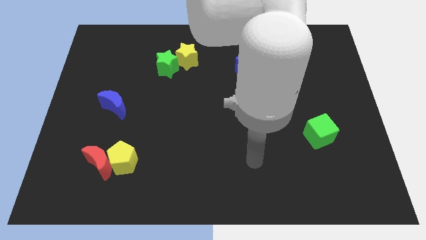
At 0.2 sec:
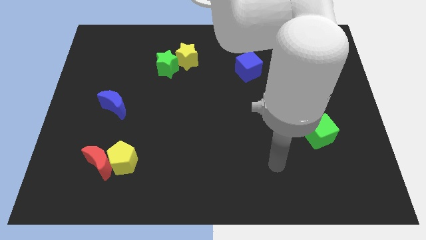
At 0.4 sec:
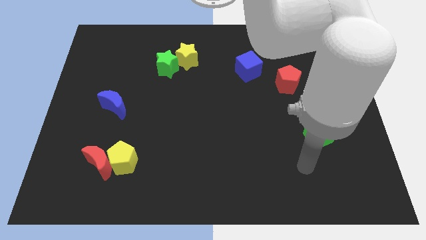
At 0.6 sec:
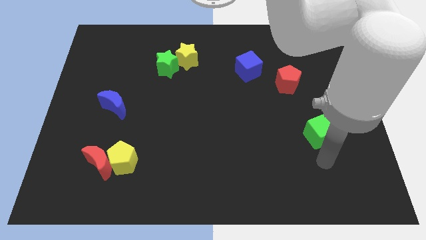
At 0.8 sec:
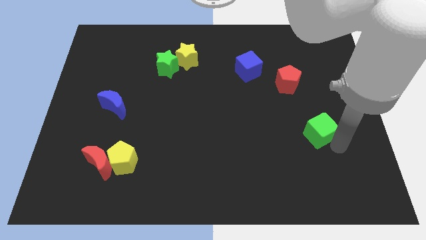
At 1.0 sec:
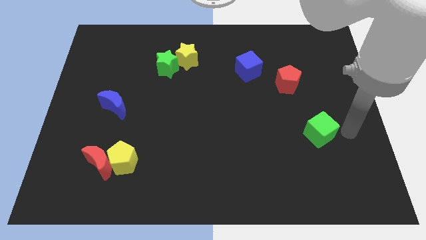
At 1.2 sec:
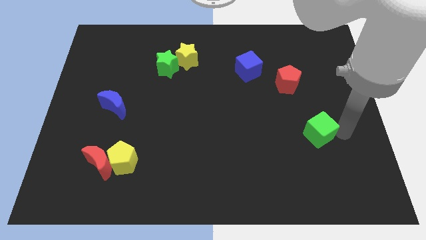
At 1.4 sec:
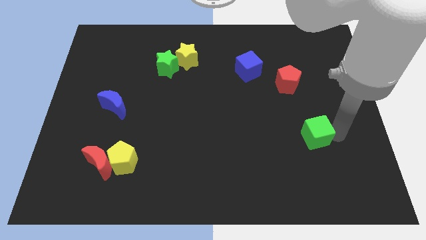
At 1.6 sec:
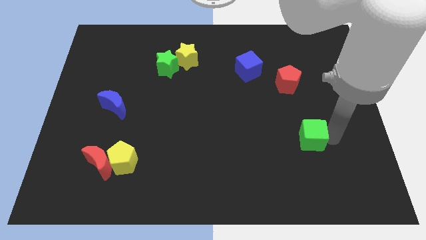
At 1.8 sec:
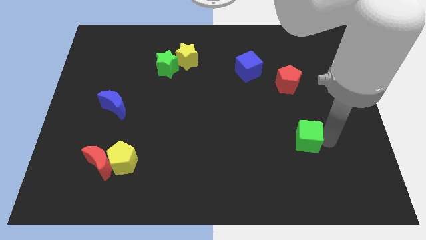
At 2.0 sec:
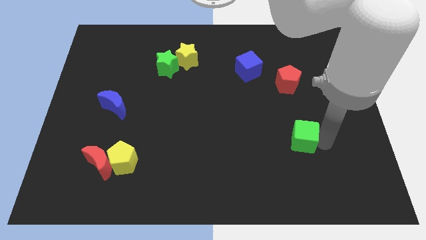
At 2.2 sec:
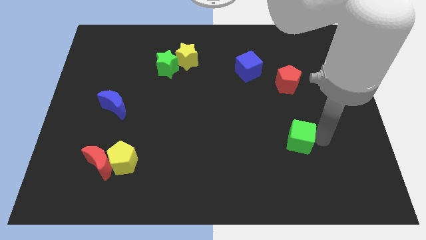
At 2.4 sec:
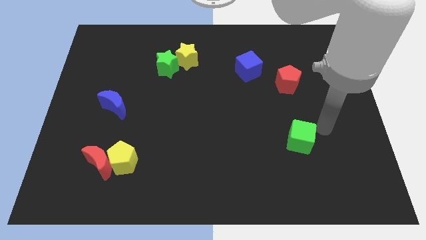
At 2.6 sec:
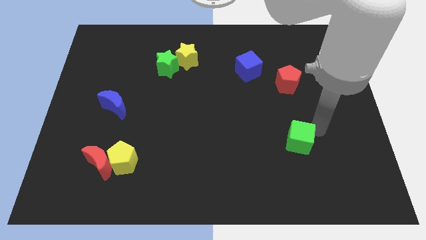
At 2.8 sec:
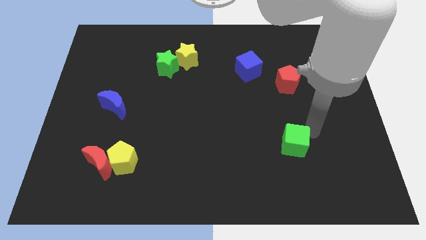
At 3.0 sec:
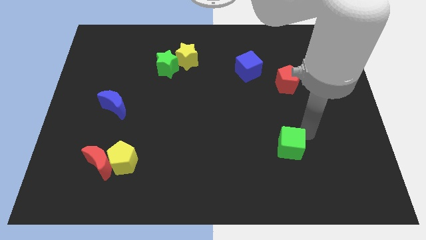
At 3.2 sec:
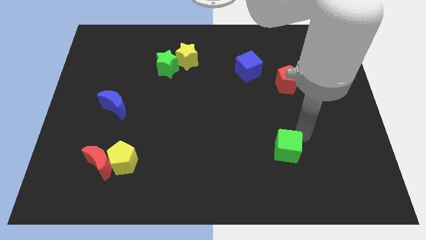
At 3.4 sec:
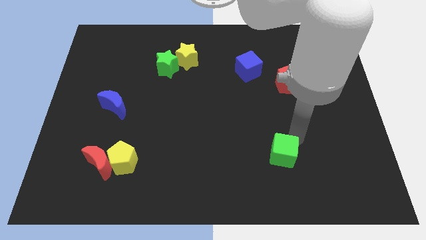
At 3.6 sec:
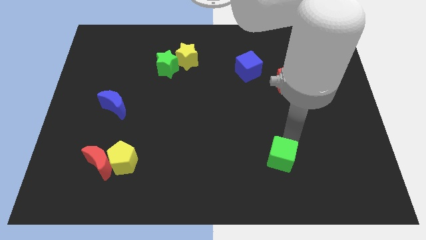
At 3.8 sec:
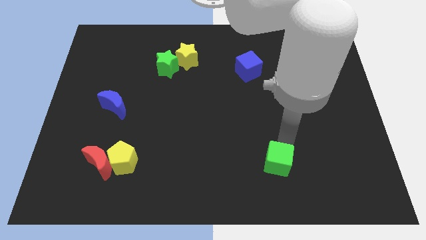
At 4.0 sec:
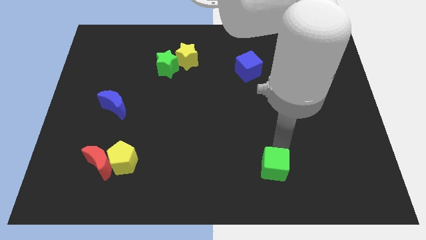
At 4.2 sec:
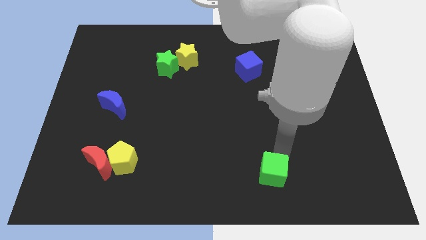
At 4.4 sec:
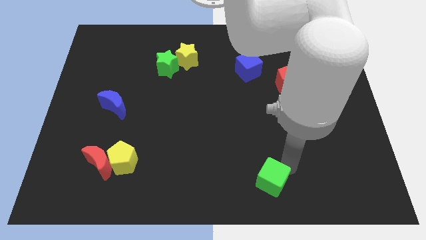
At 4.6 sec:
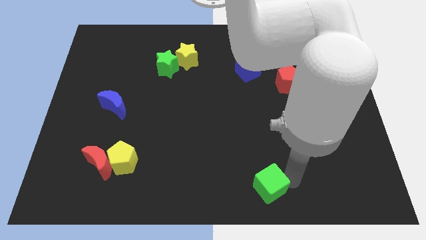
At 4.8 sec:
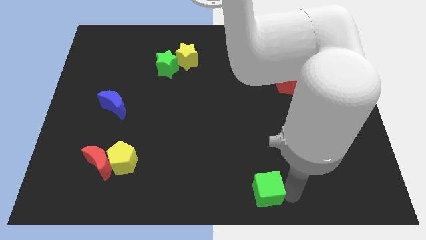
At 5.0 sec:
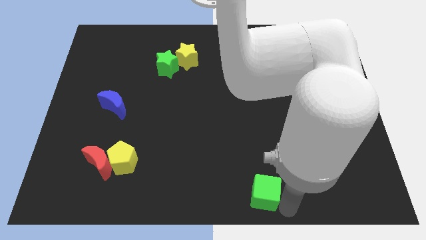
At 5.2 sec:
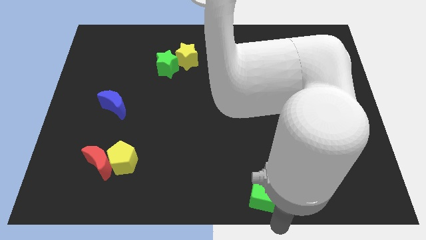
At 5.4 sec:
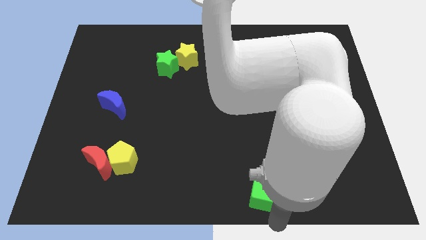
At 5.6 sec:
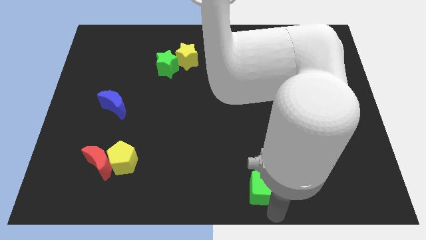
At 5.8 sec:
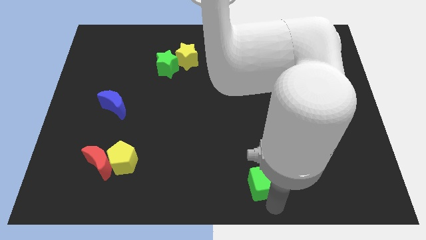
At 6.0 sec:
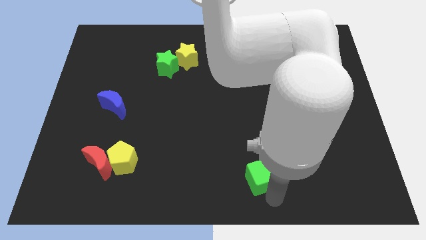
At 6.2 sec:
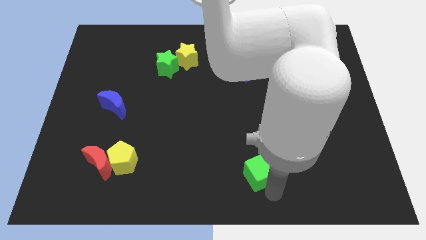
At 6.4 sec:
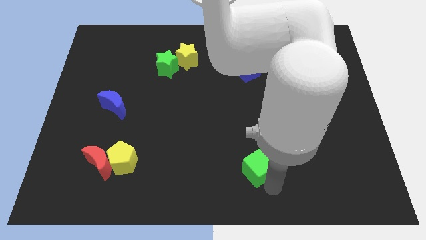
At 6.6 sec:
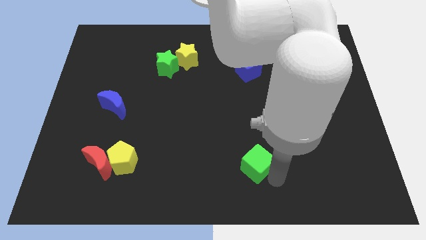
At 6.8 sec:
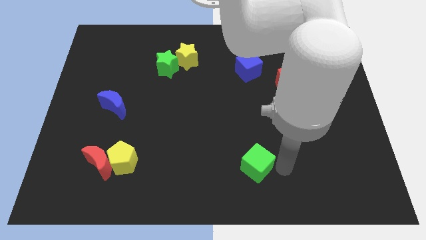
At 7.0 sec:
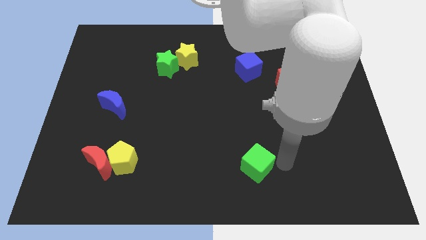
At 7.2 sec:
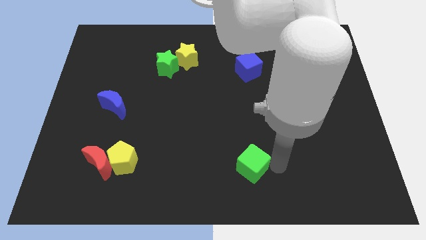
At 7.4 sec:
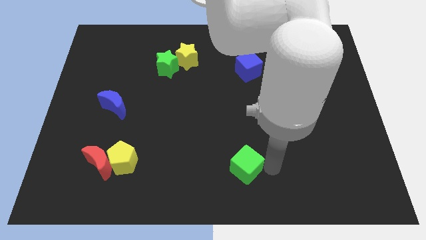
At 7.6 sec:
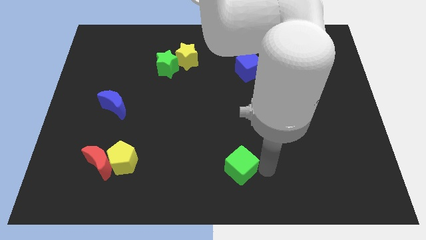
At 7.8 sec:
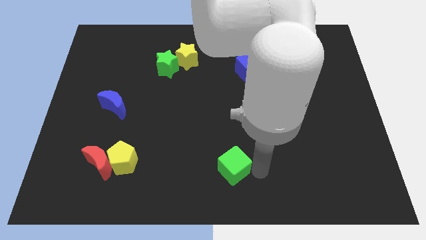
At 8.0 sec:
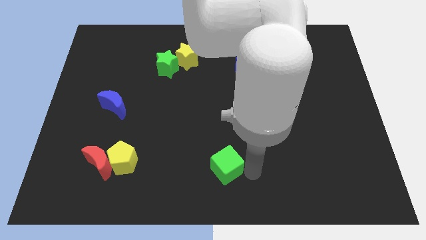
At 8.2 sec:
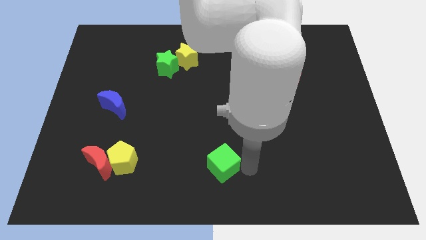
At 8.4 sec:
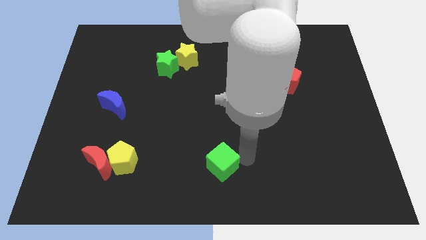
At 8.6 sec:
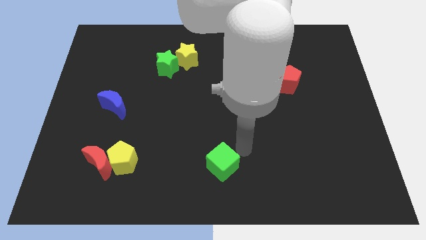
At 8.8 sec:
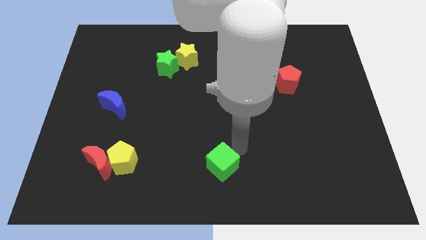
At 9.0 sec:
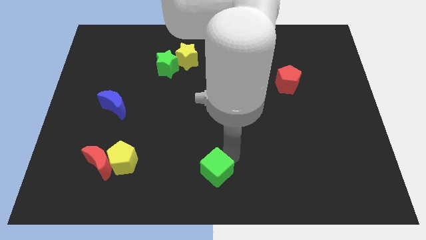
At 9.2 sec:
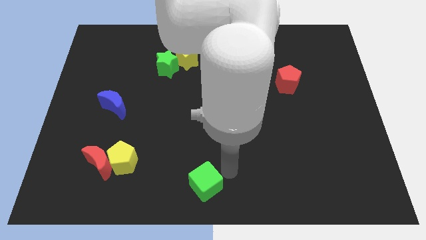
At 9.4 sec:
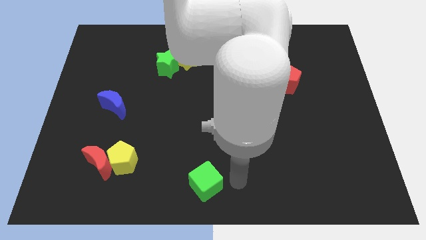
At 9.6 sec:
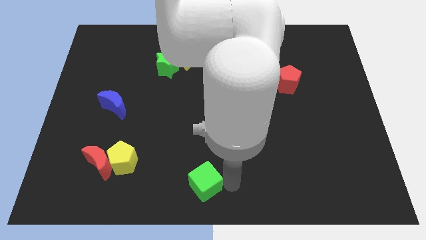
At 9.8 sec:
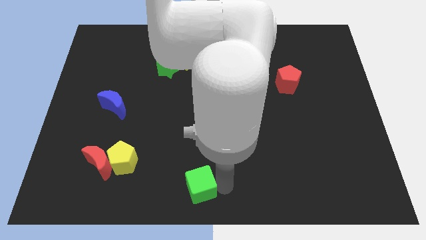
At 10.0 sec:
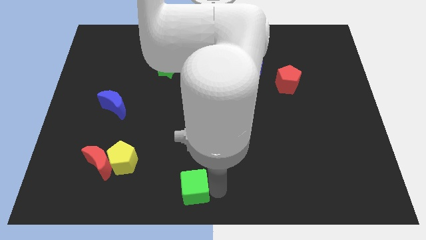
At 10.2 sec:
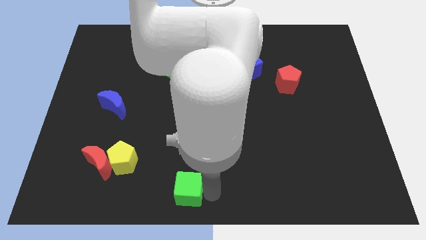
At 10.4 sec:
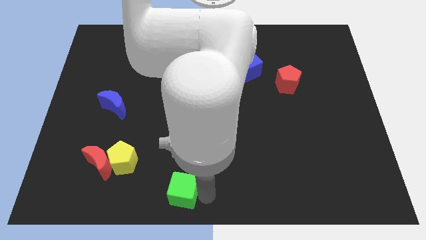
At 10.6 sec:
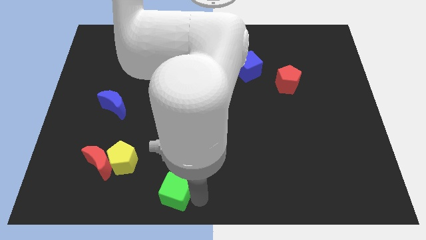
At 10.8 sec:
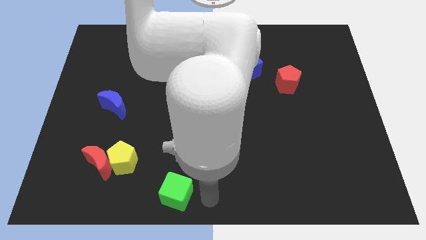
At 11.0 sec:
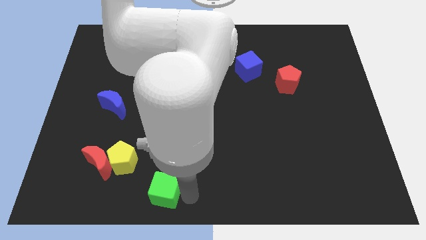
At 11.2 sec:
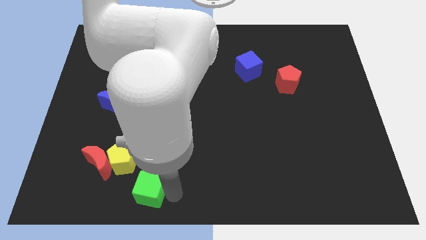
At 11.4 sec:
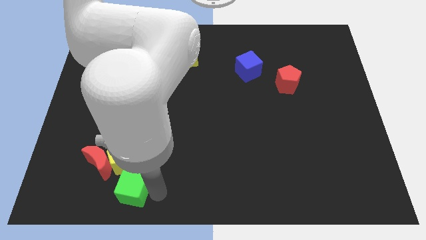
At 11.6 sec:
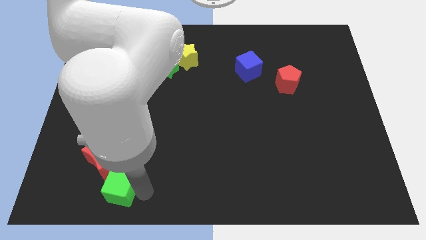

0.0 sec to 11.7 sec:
move the green cube diagonally down and to the left of the yellow pentagon
